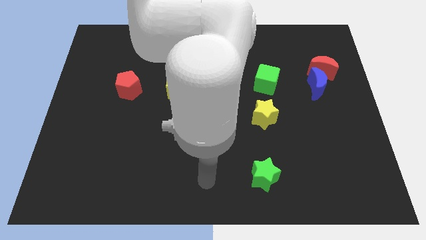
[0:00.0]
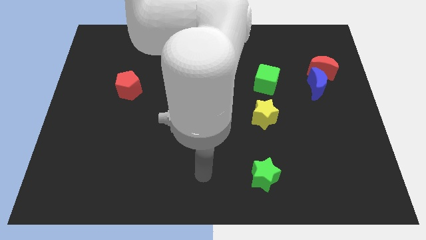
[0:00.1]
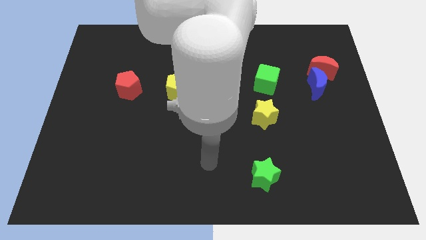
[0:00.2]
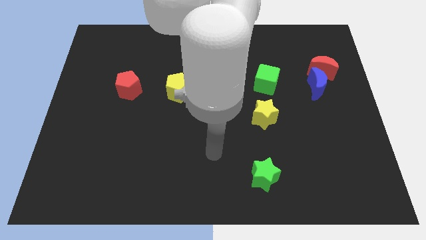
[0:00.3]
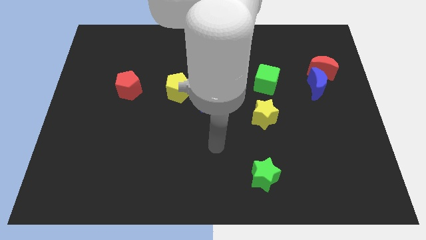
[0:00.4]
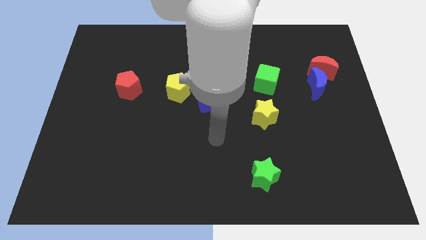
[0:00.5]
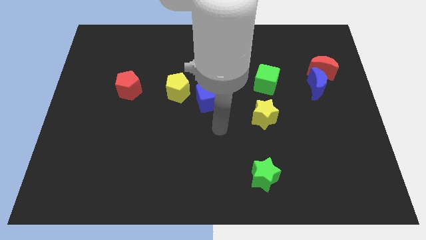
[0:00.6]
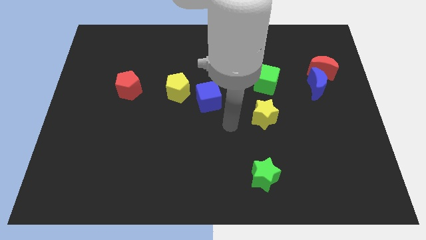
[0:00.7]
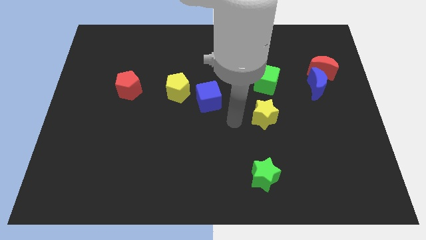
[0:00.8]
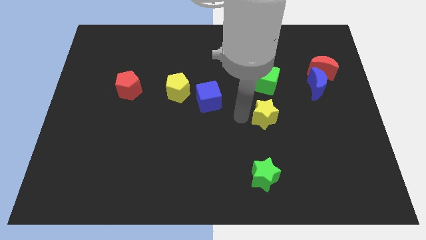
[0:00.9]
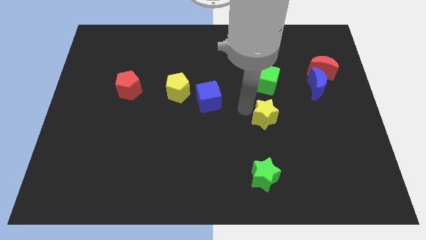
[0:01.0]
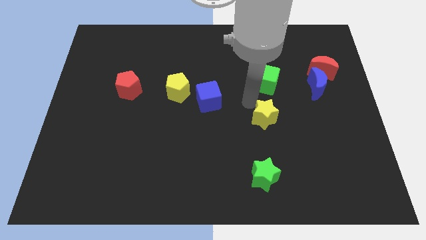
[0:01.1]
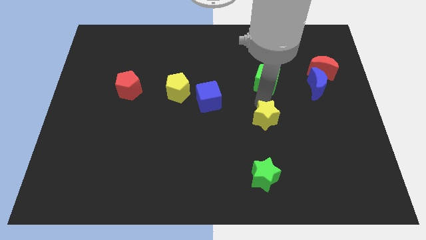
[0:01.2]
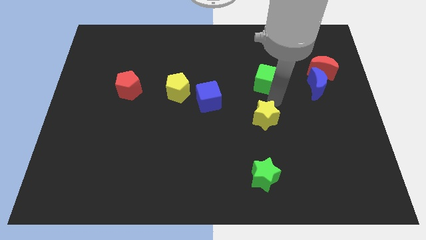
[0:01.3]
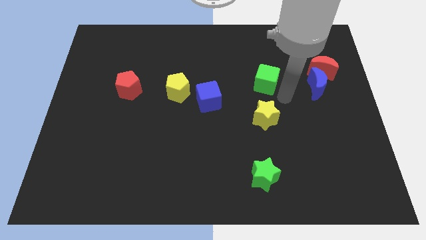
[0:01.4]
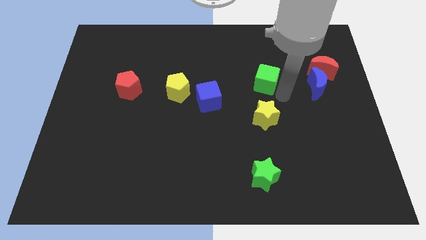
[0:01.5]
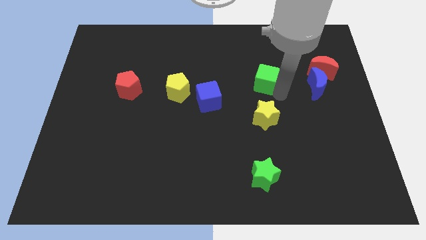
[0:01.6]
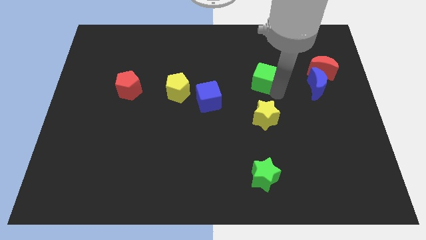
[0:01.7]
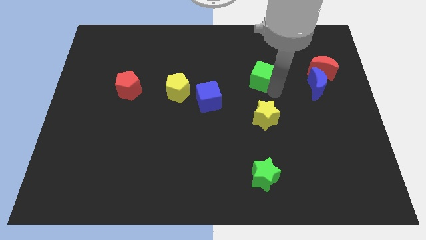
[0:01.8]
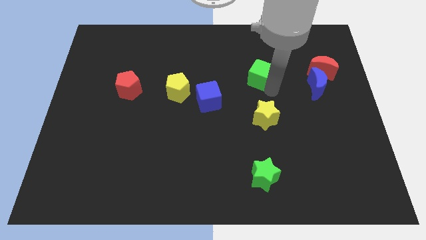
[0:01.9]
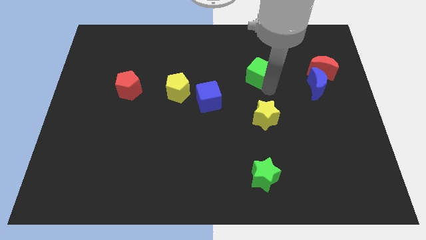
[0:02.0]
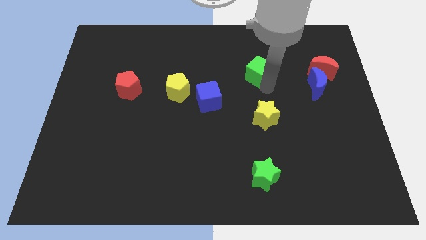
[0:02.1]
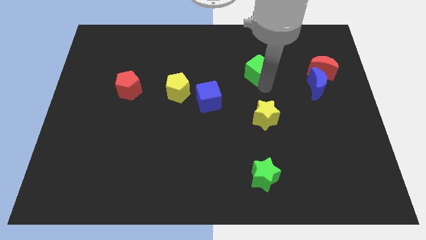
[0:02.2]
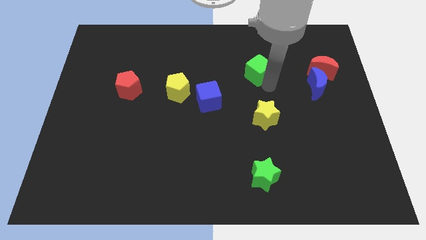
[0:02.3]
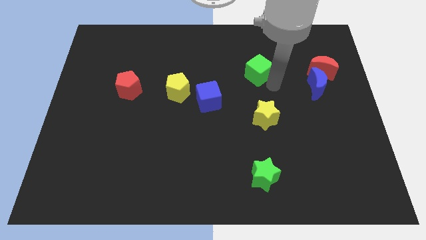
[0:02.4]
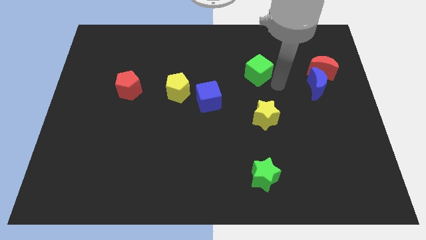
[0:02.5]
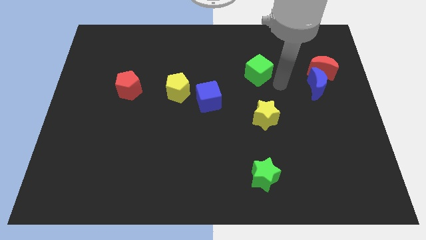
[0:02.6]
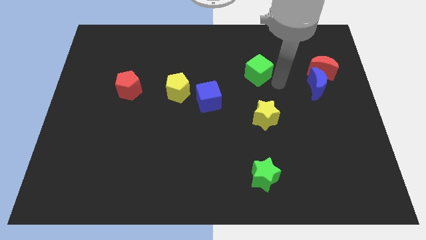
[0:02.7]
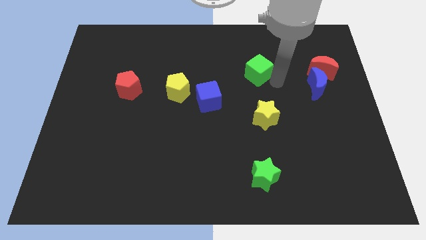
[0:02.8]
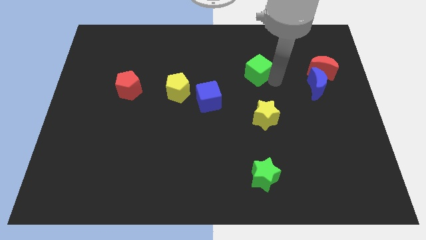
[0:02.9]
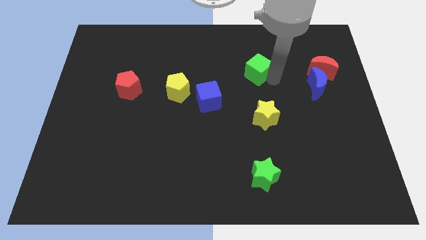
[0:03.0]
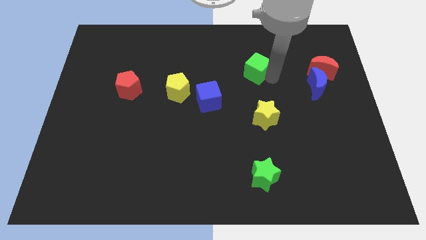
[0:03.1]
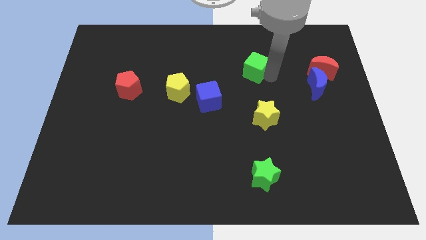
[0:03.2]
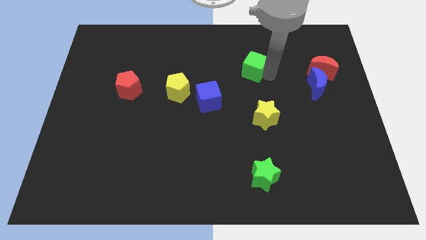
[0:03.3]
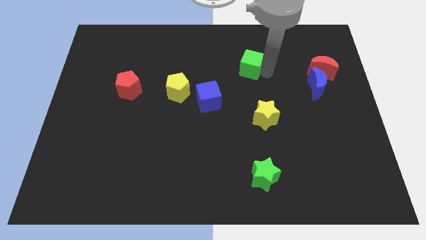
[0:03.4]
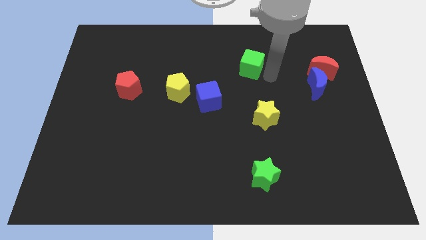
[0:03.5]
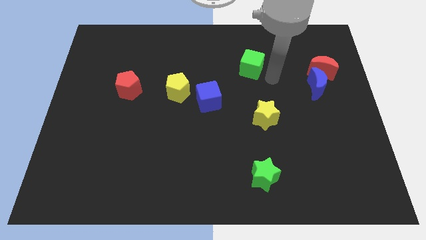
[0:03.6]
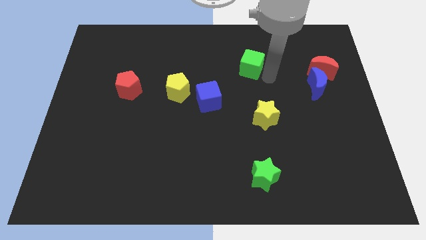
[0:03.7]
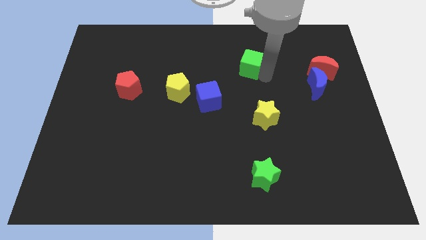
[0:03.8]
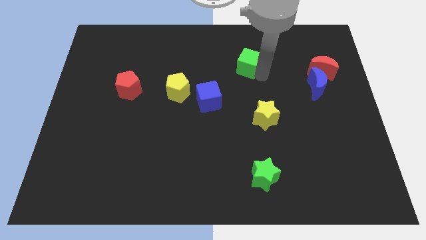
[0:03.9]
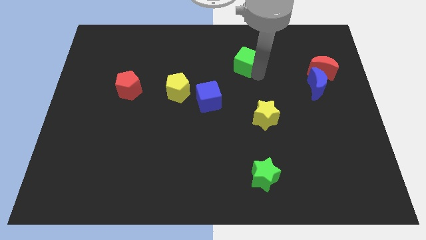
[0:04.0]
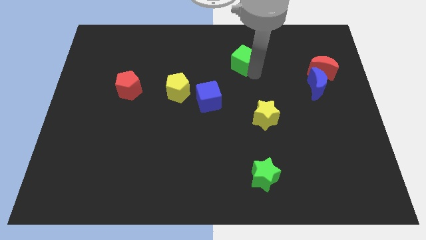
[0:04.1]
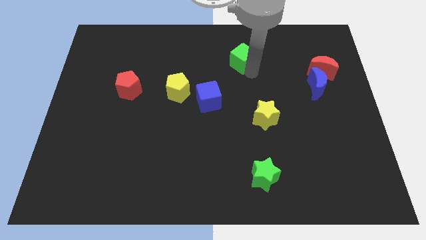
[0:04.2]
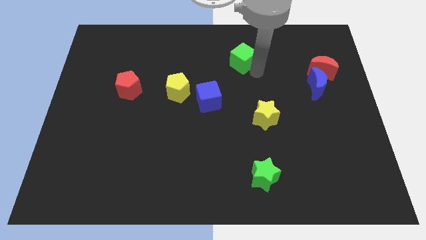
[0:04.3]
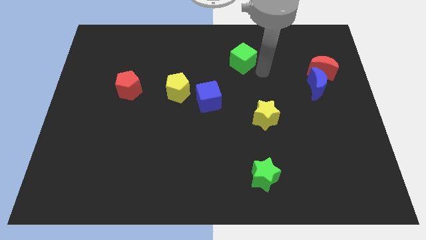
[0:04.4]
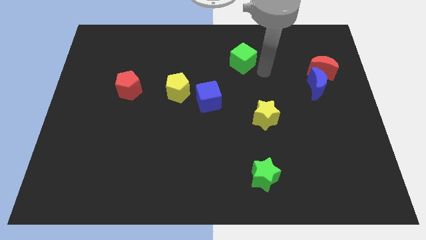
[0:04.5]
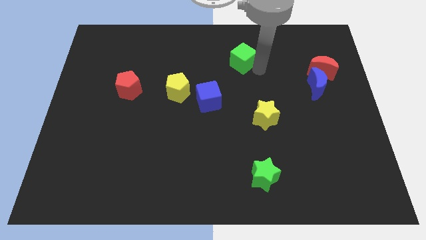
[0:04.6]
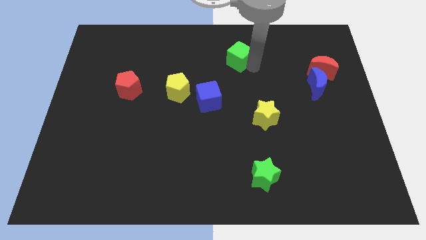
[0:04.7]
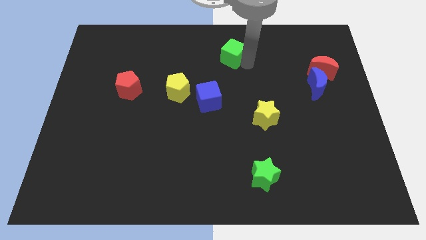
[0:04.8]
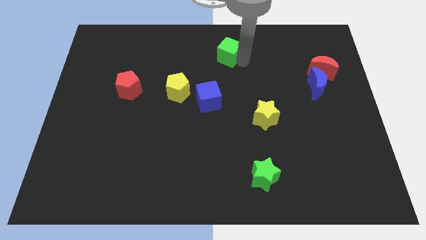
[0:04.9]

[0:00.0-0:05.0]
put the green cube to the top side

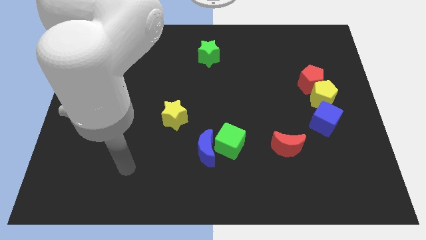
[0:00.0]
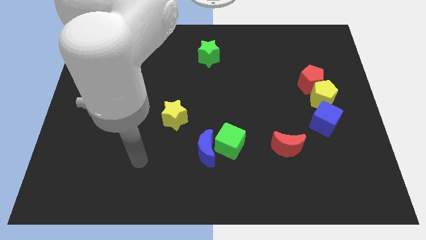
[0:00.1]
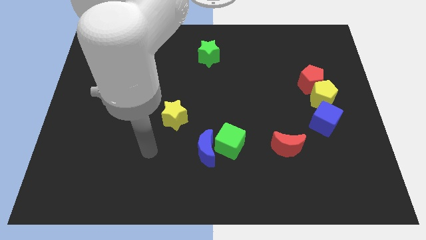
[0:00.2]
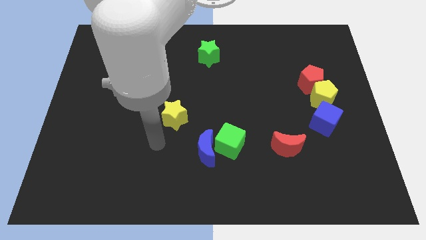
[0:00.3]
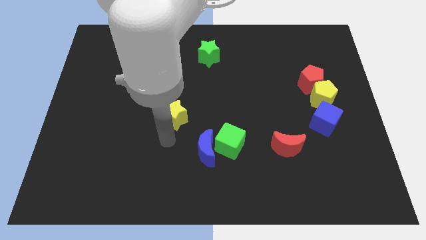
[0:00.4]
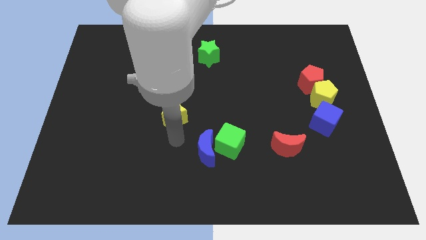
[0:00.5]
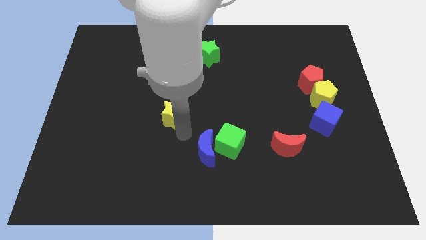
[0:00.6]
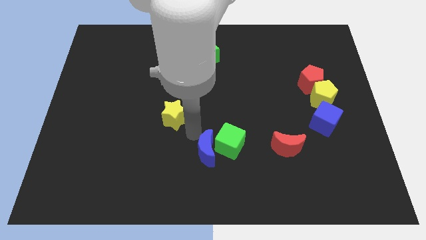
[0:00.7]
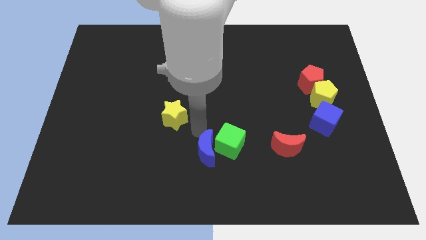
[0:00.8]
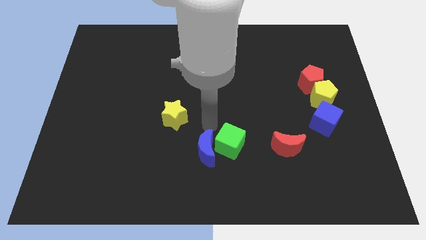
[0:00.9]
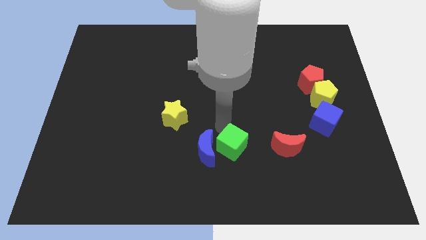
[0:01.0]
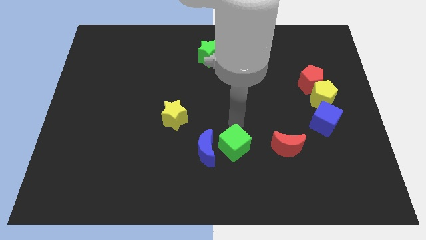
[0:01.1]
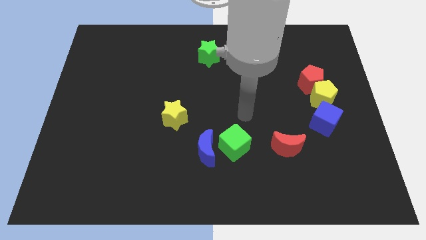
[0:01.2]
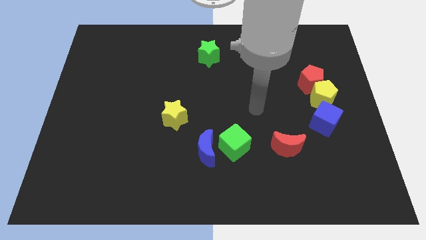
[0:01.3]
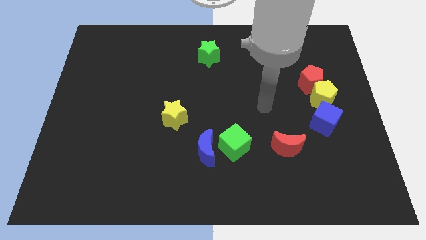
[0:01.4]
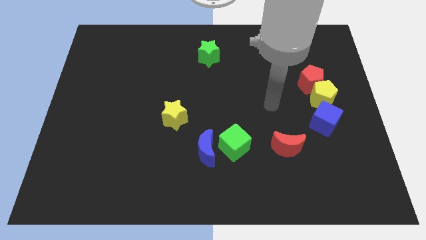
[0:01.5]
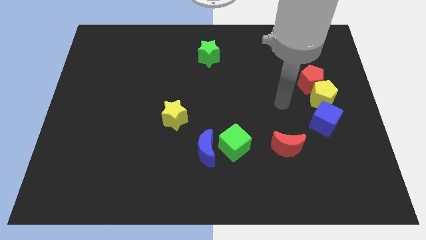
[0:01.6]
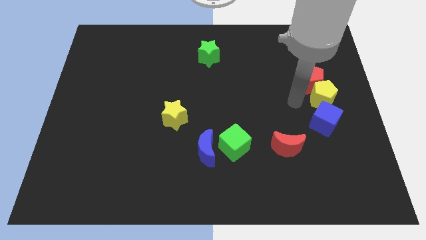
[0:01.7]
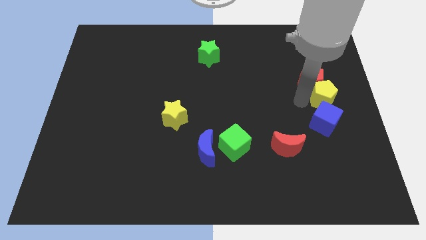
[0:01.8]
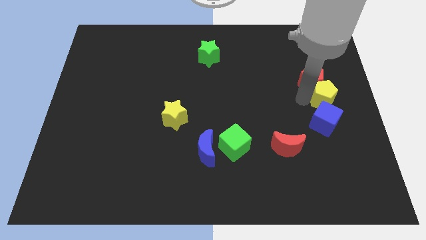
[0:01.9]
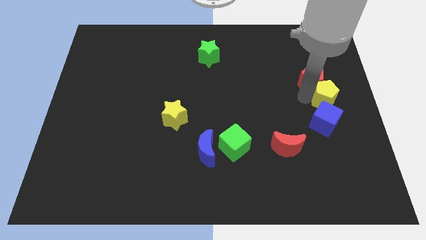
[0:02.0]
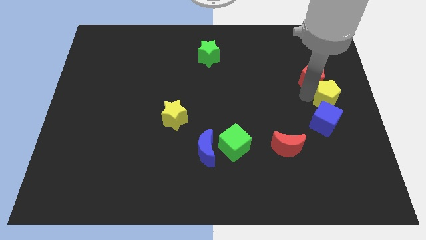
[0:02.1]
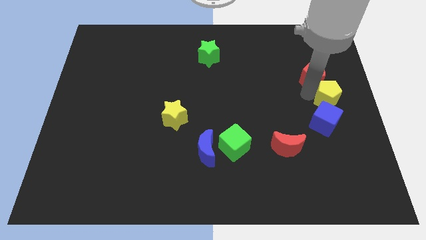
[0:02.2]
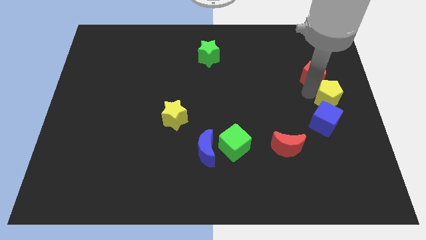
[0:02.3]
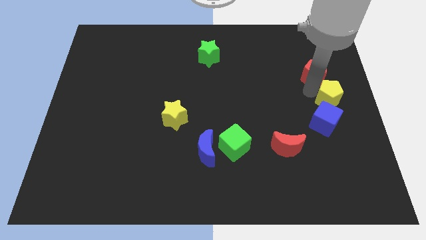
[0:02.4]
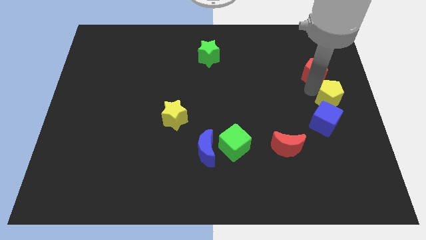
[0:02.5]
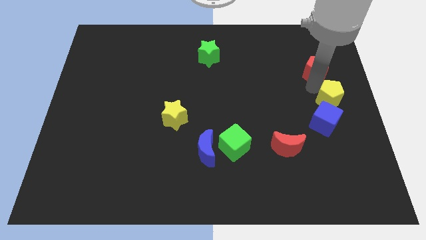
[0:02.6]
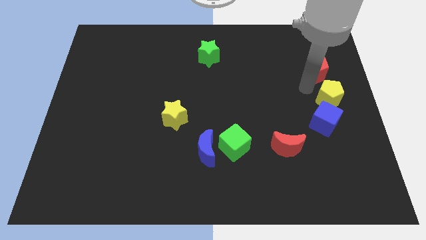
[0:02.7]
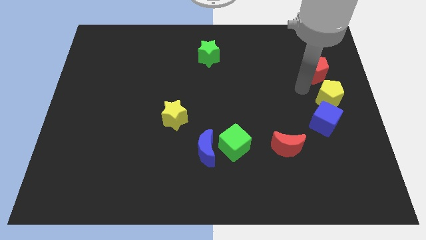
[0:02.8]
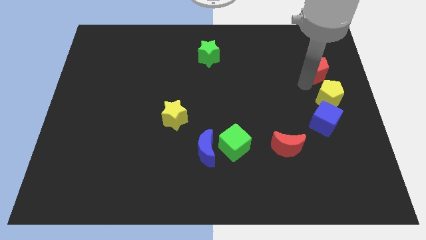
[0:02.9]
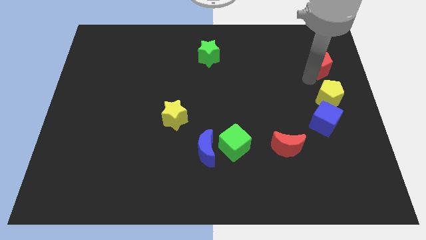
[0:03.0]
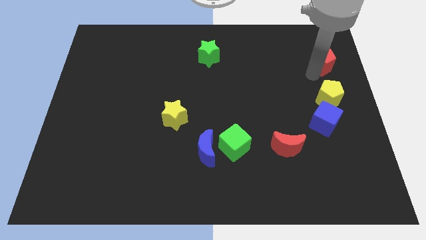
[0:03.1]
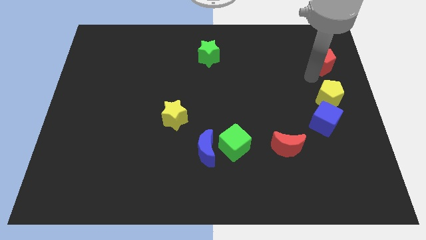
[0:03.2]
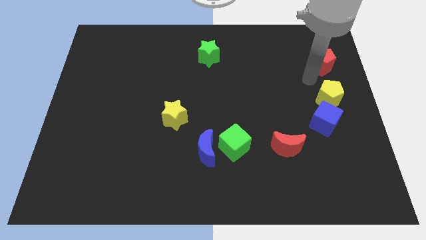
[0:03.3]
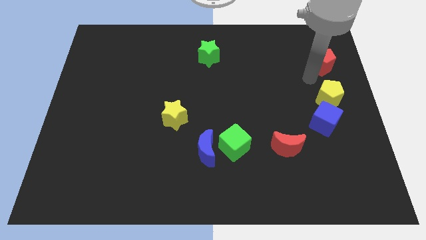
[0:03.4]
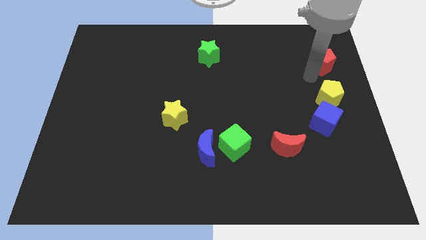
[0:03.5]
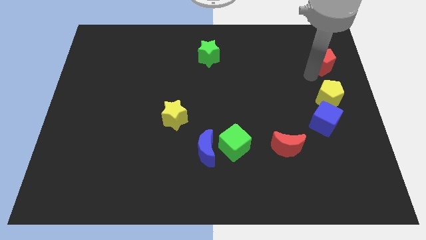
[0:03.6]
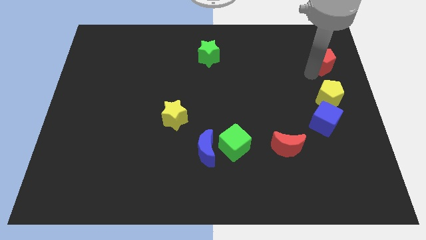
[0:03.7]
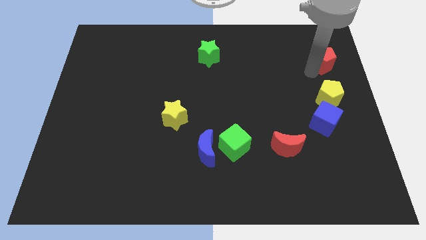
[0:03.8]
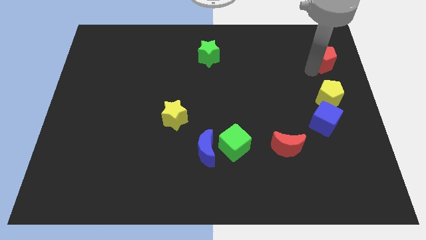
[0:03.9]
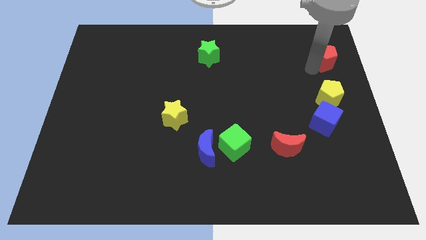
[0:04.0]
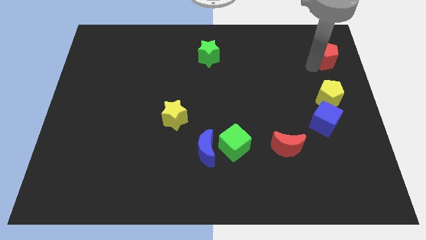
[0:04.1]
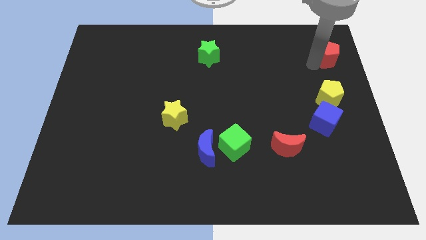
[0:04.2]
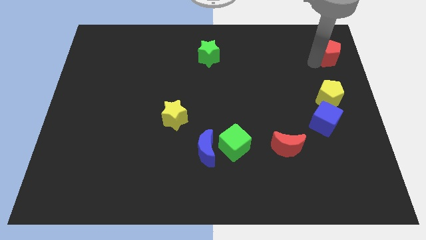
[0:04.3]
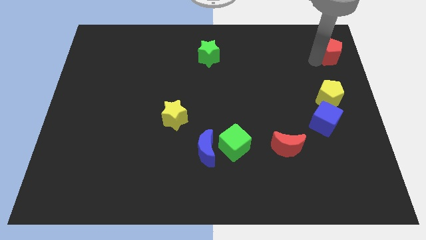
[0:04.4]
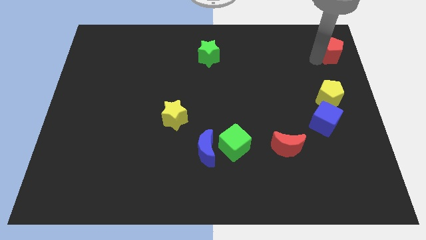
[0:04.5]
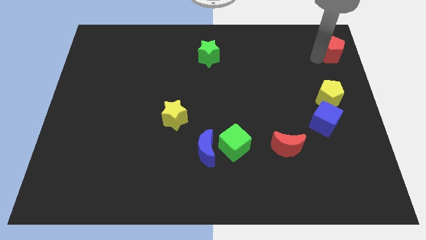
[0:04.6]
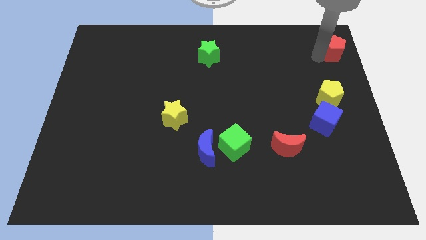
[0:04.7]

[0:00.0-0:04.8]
slide the red pentagon to the top right corner
